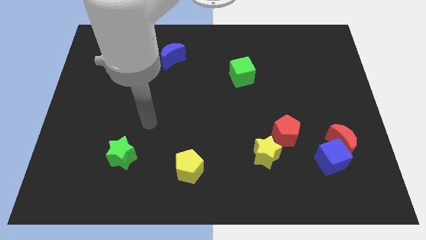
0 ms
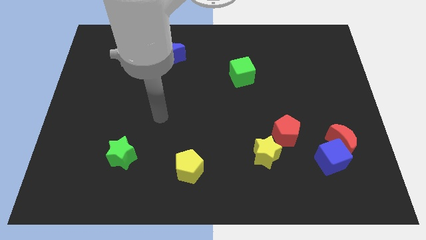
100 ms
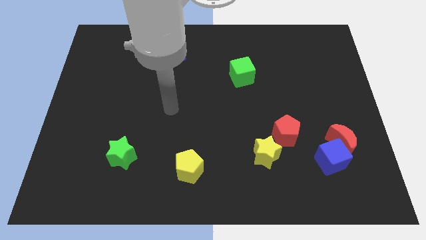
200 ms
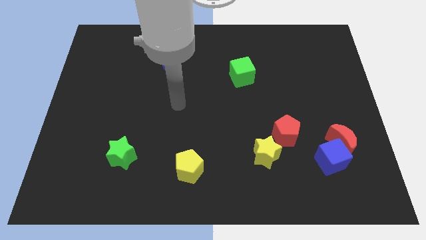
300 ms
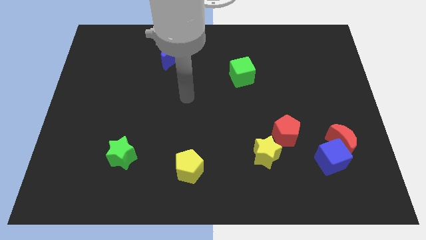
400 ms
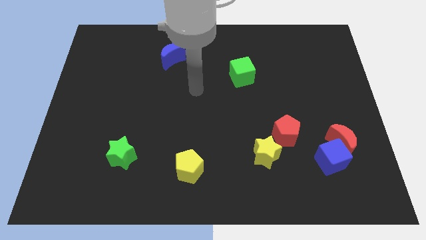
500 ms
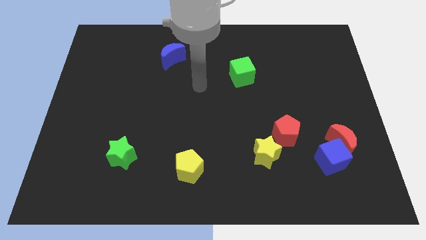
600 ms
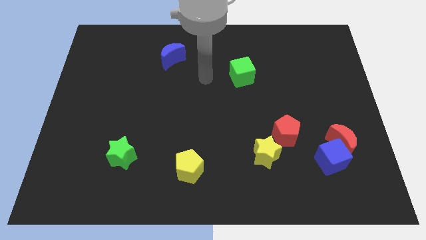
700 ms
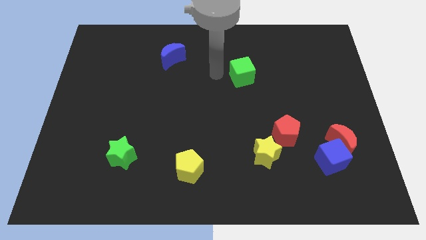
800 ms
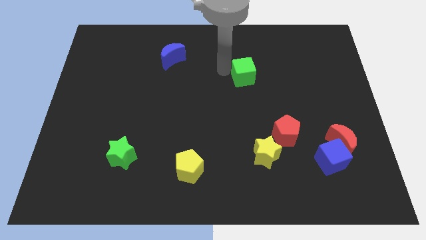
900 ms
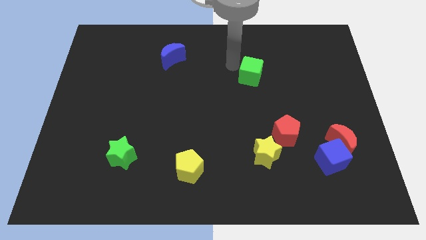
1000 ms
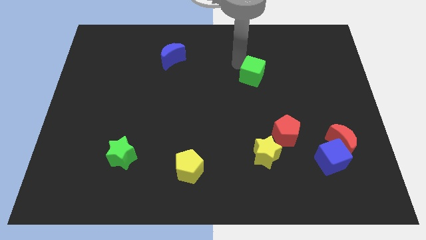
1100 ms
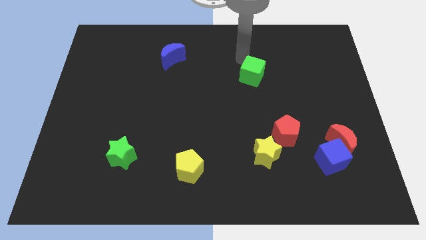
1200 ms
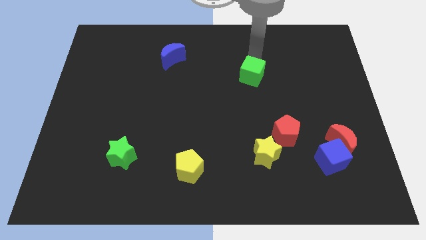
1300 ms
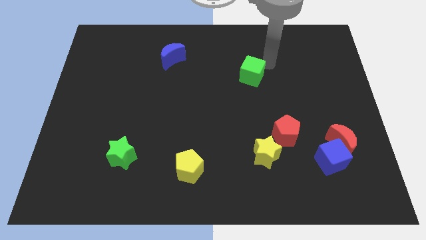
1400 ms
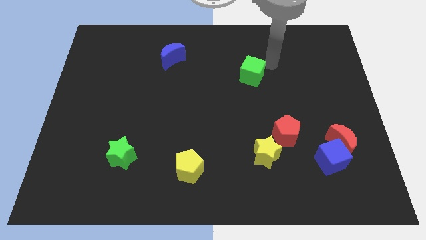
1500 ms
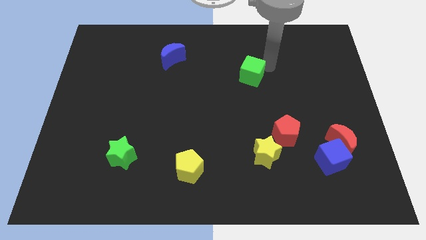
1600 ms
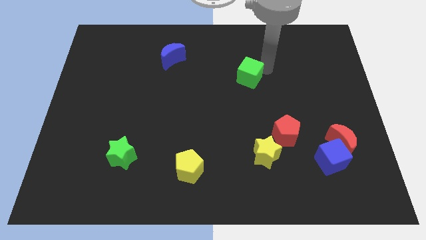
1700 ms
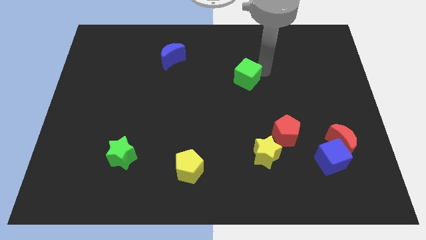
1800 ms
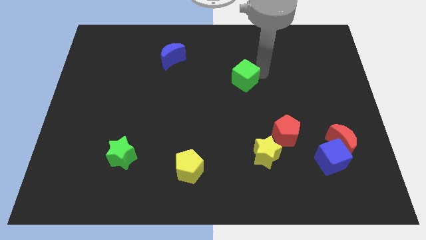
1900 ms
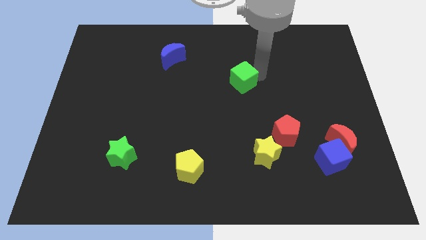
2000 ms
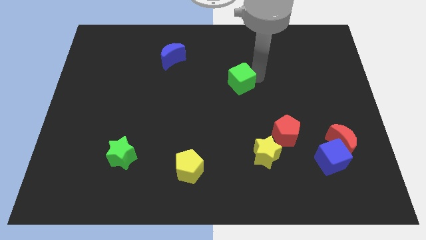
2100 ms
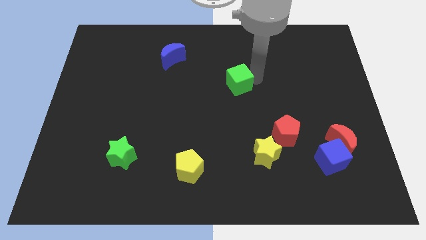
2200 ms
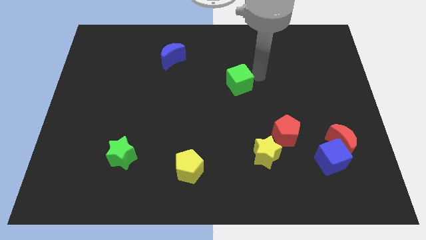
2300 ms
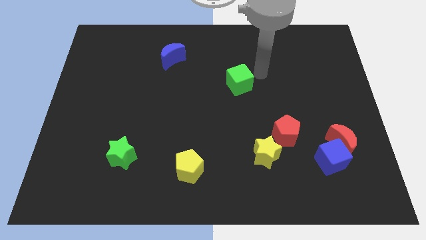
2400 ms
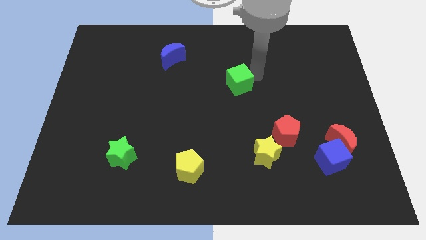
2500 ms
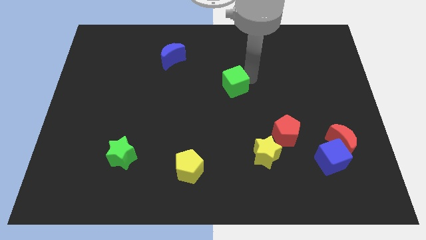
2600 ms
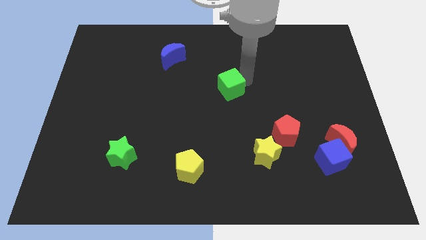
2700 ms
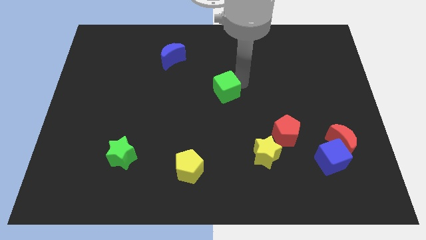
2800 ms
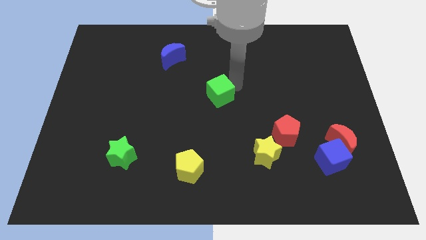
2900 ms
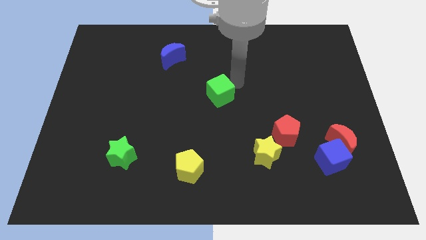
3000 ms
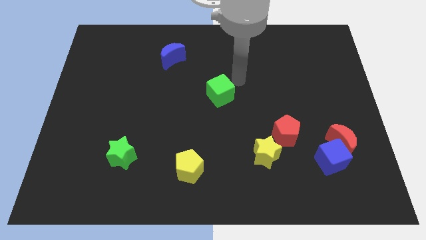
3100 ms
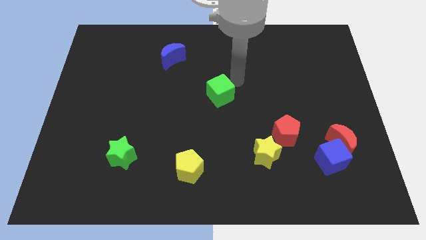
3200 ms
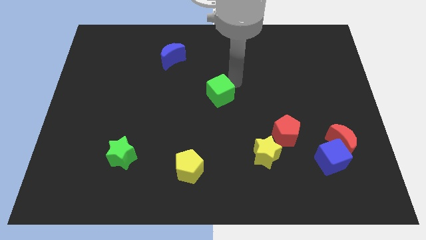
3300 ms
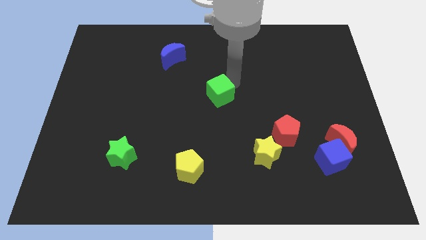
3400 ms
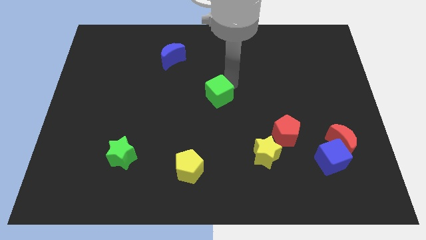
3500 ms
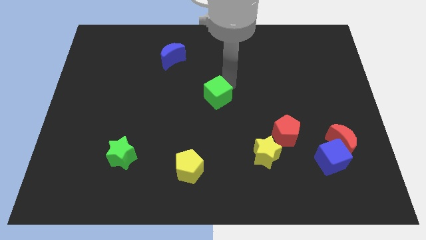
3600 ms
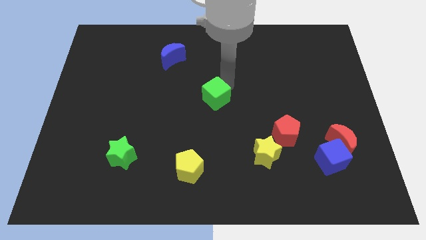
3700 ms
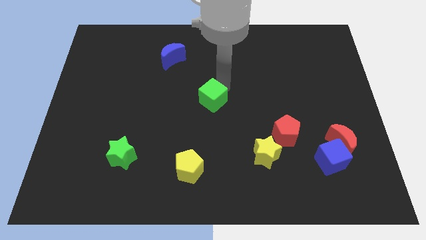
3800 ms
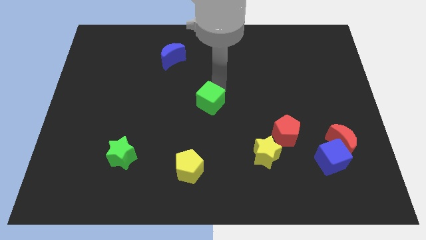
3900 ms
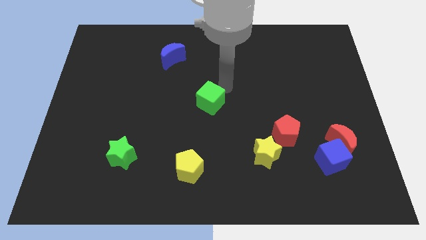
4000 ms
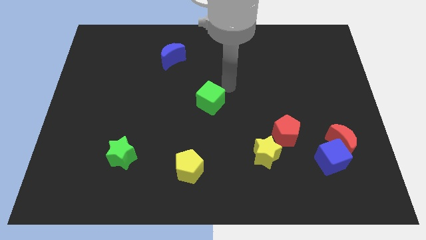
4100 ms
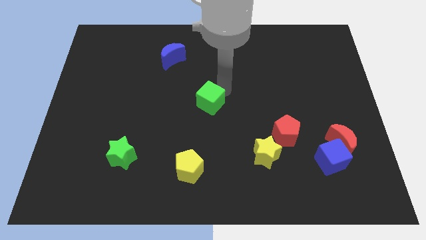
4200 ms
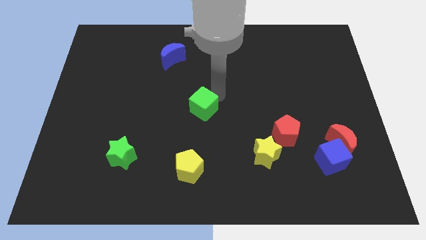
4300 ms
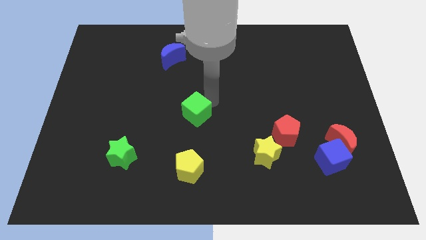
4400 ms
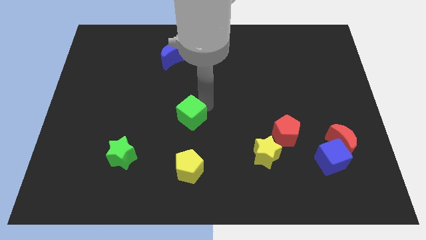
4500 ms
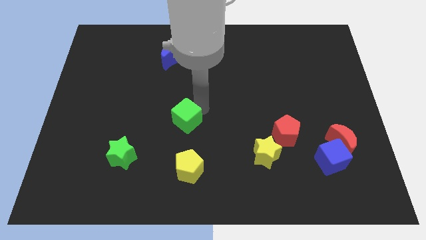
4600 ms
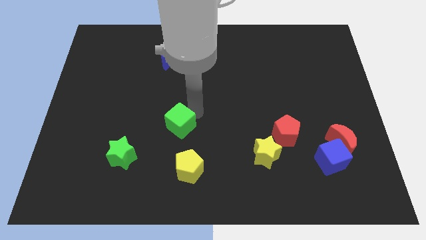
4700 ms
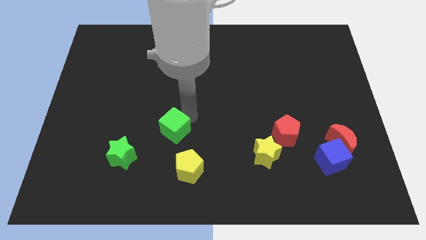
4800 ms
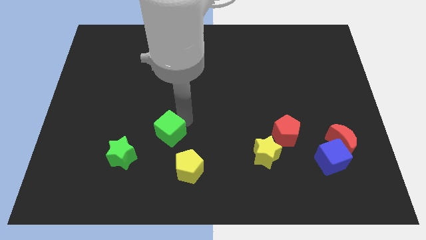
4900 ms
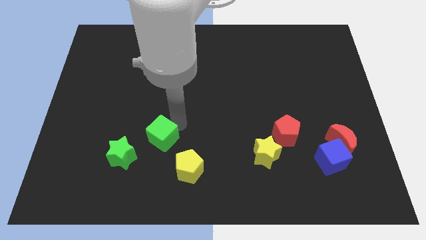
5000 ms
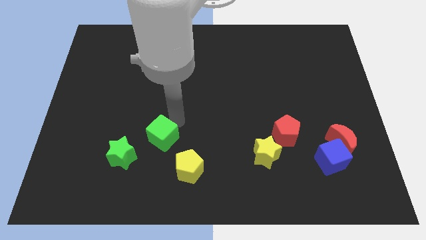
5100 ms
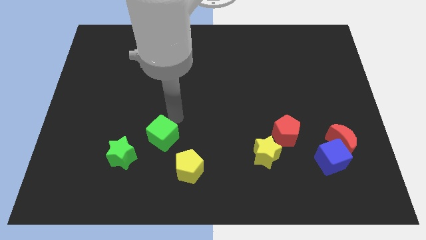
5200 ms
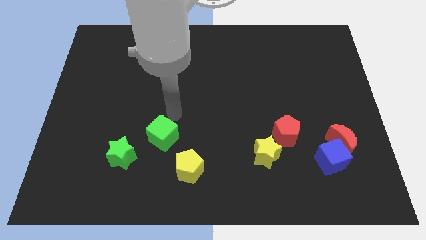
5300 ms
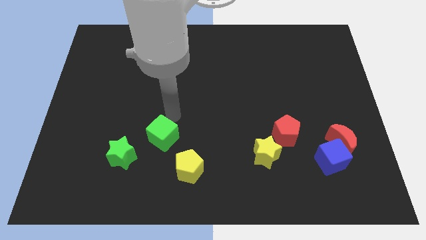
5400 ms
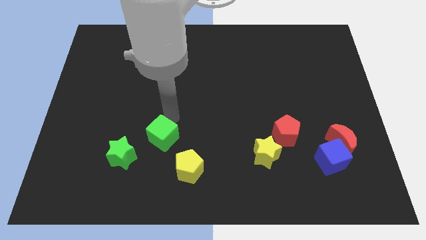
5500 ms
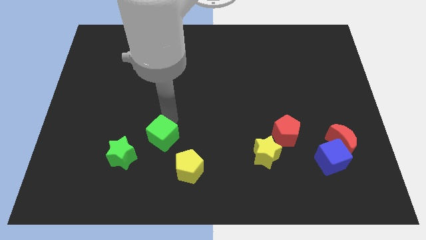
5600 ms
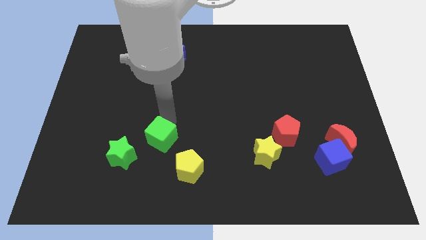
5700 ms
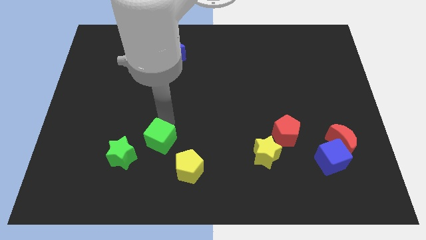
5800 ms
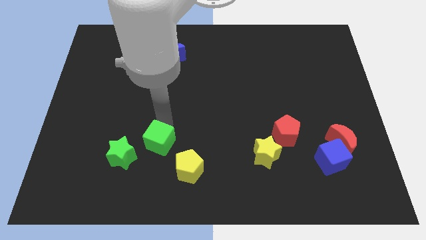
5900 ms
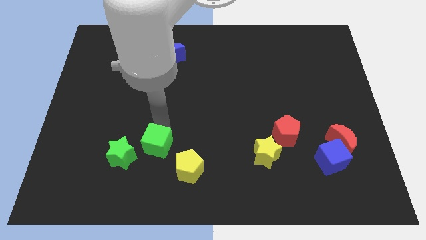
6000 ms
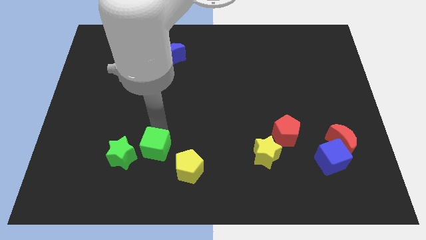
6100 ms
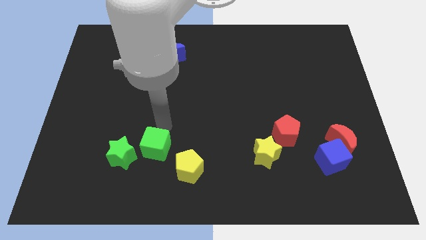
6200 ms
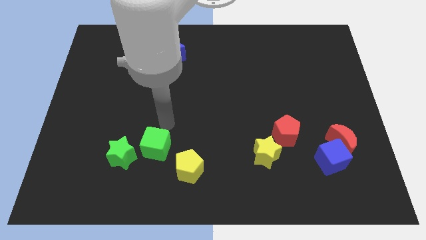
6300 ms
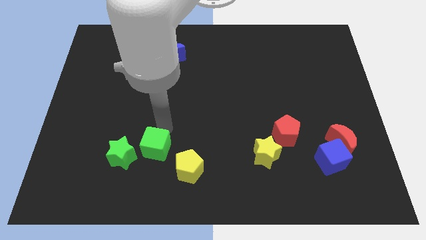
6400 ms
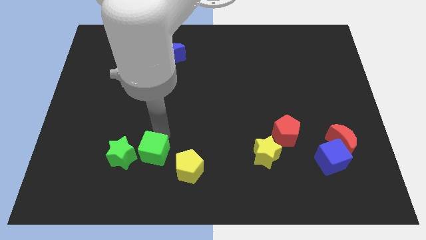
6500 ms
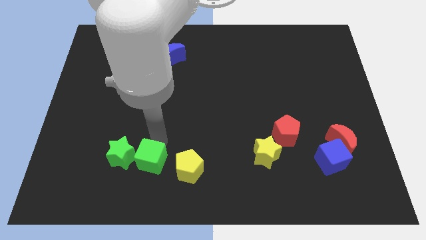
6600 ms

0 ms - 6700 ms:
move the green cube to the bottom right side of the green star
